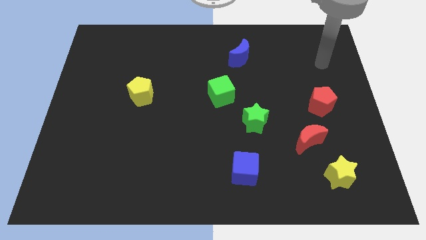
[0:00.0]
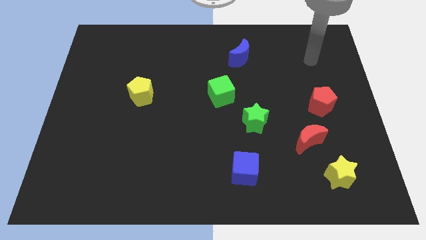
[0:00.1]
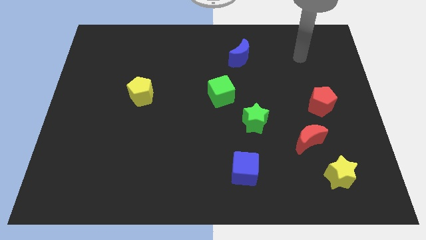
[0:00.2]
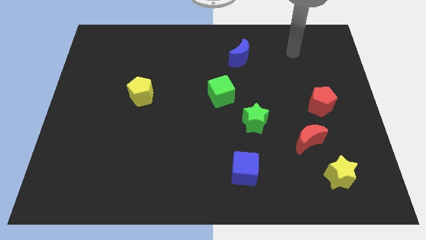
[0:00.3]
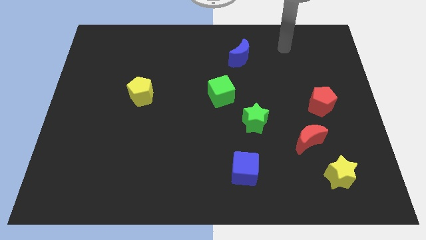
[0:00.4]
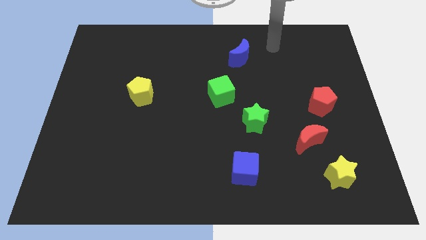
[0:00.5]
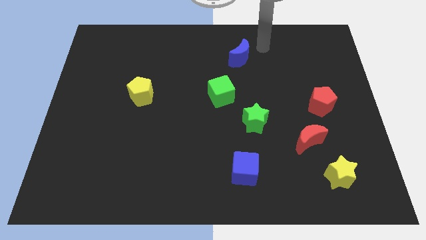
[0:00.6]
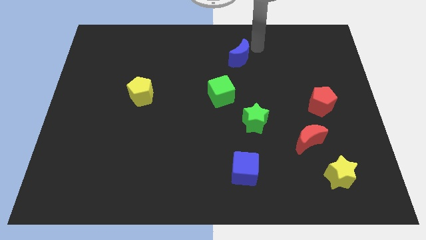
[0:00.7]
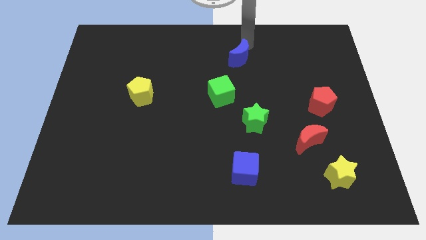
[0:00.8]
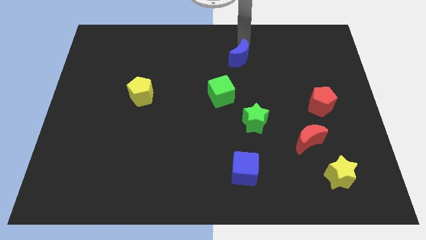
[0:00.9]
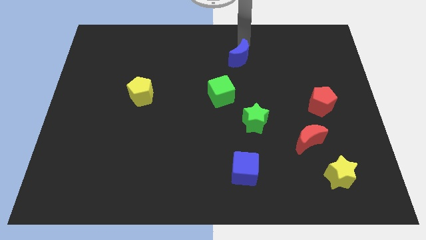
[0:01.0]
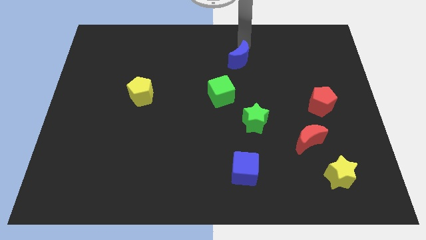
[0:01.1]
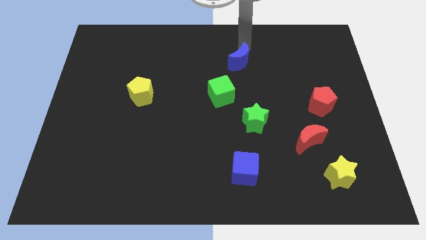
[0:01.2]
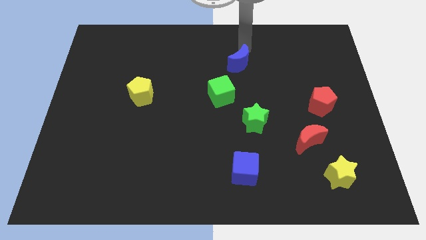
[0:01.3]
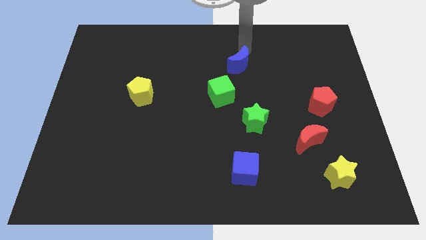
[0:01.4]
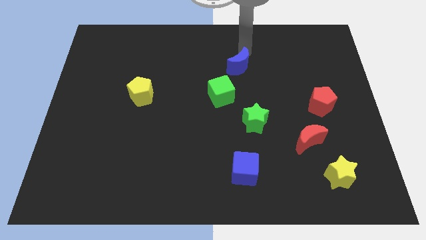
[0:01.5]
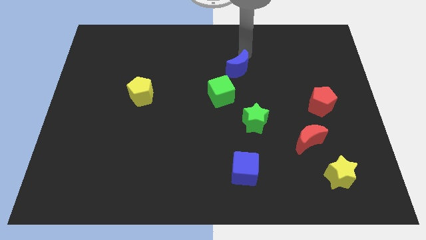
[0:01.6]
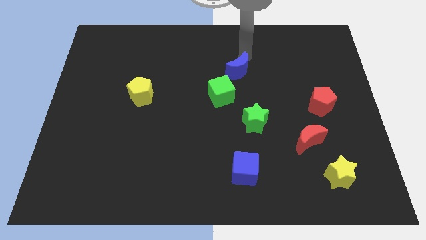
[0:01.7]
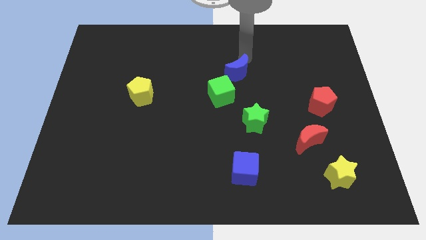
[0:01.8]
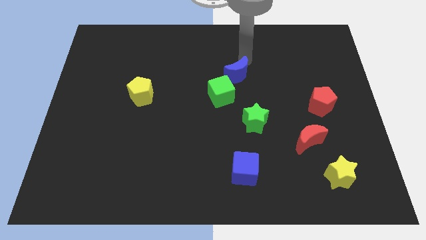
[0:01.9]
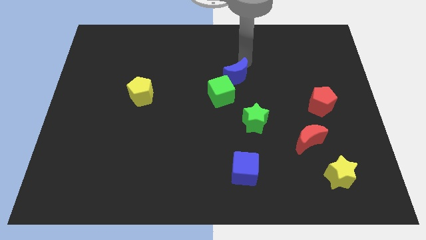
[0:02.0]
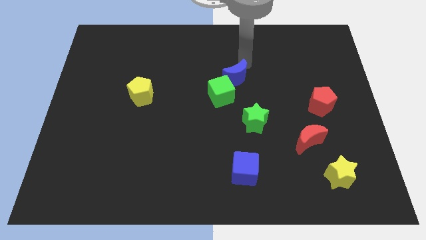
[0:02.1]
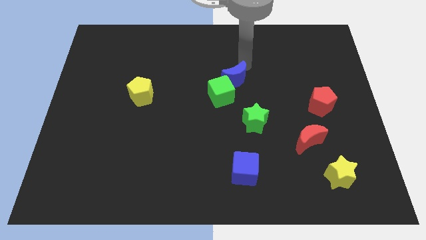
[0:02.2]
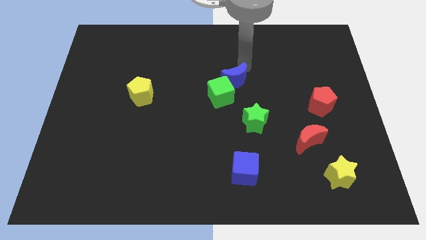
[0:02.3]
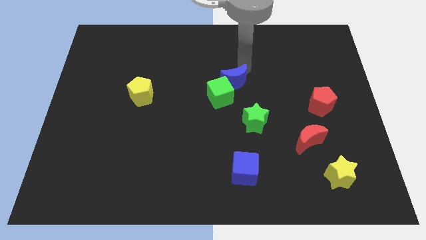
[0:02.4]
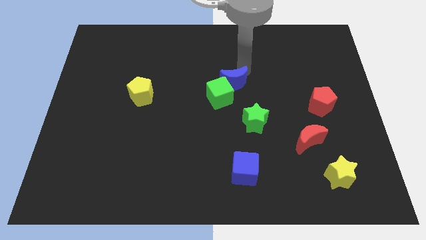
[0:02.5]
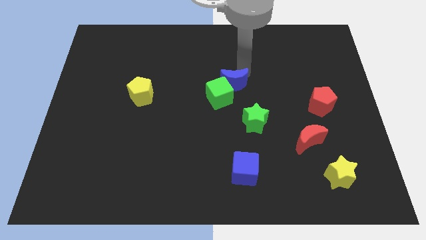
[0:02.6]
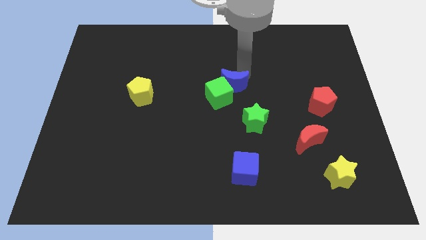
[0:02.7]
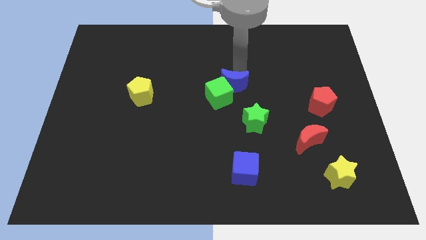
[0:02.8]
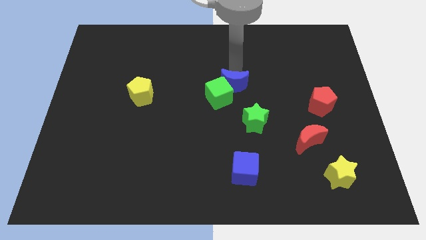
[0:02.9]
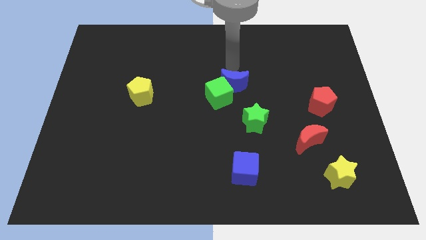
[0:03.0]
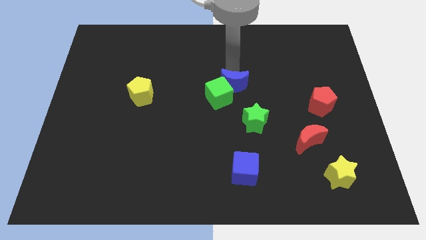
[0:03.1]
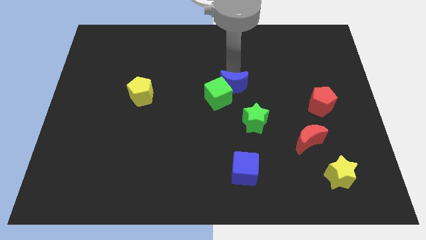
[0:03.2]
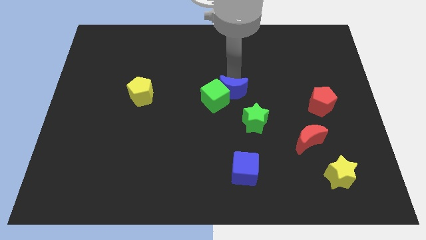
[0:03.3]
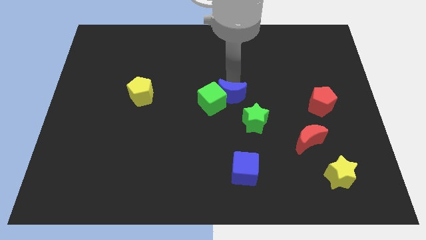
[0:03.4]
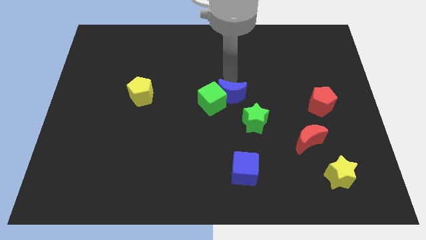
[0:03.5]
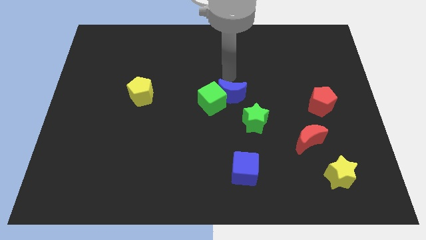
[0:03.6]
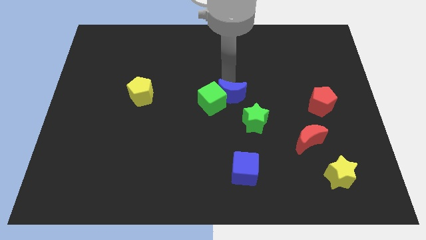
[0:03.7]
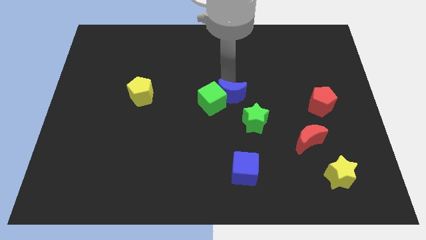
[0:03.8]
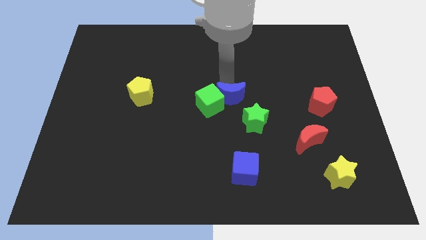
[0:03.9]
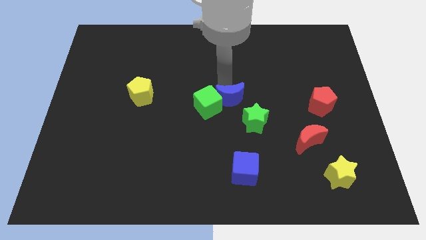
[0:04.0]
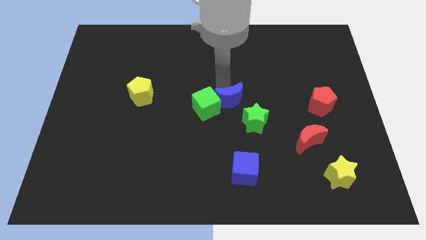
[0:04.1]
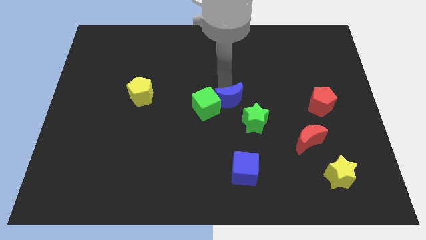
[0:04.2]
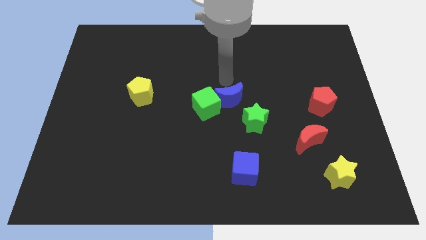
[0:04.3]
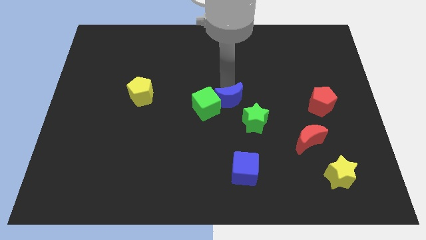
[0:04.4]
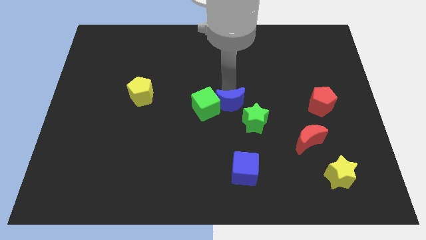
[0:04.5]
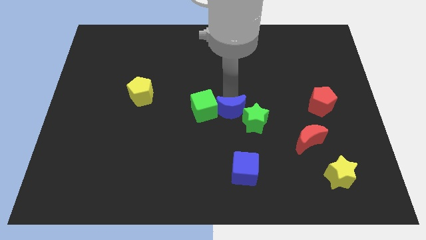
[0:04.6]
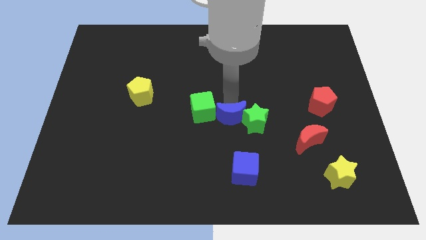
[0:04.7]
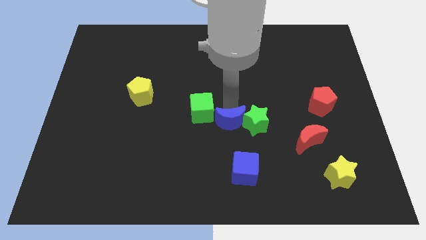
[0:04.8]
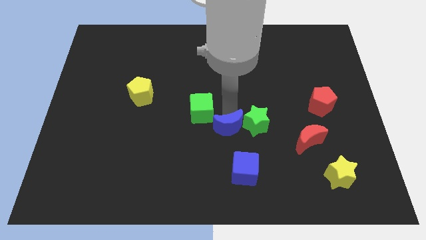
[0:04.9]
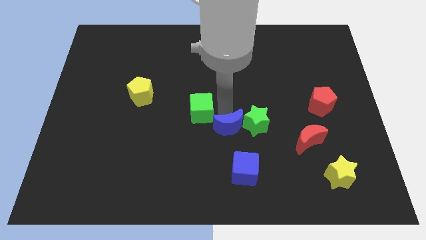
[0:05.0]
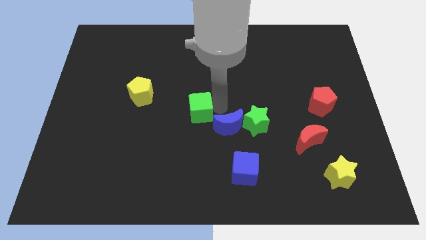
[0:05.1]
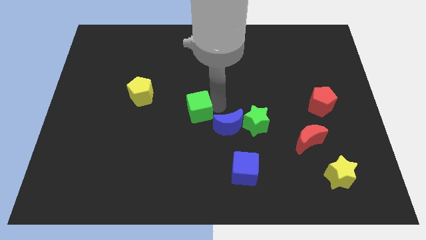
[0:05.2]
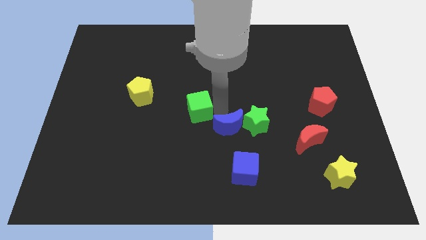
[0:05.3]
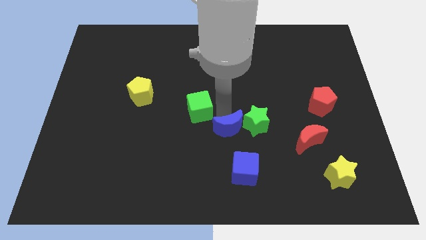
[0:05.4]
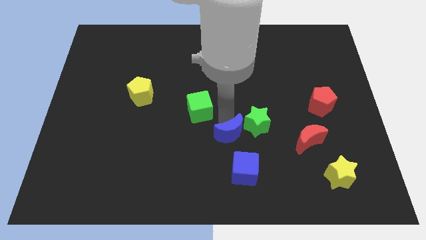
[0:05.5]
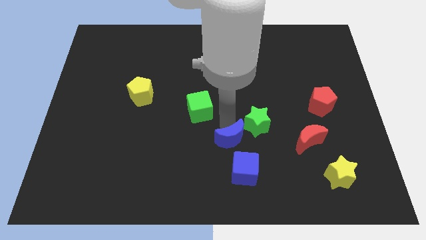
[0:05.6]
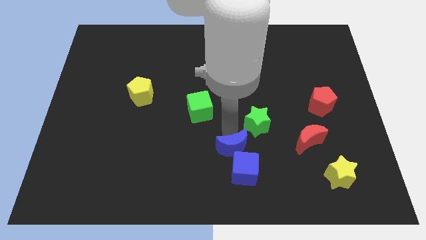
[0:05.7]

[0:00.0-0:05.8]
slide the blue moon to the blue cube

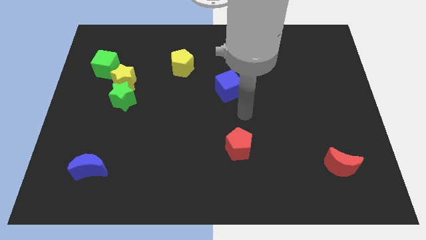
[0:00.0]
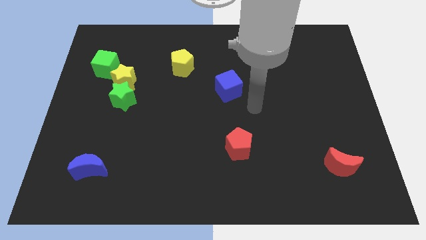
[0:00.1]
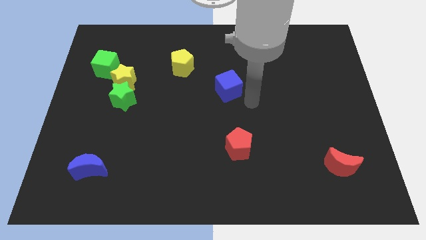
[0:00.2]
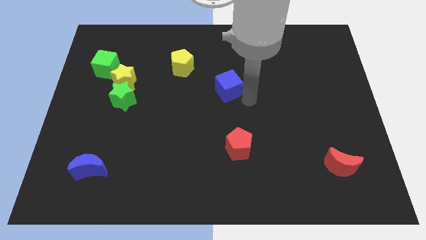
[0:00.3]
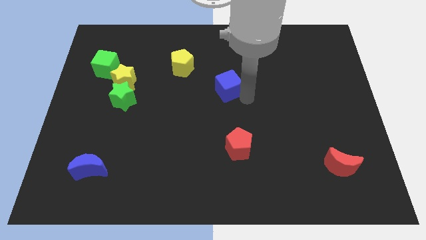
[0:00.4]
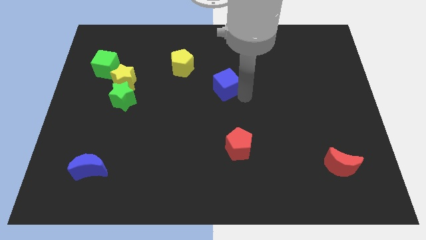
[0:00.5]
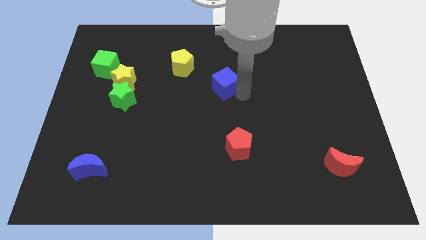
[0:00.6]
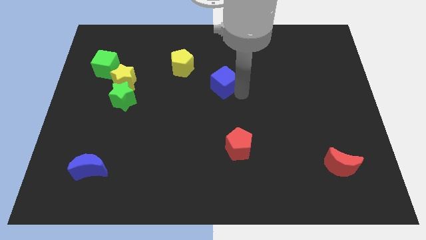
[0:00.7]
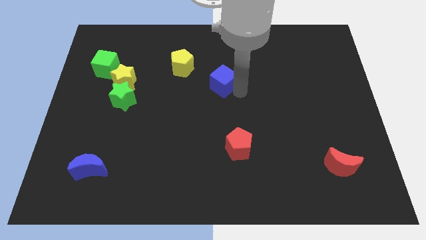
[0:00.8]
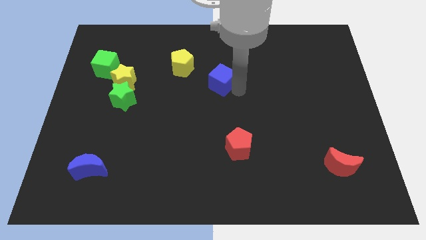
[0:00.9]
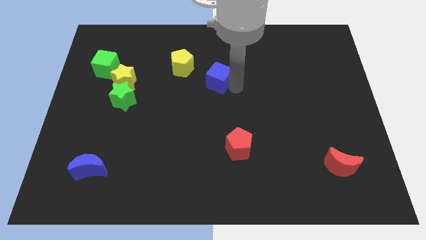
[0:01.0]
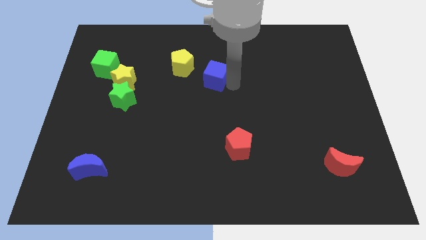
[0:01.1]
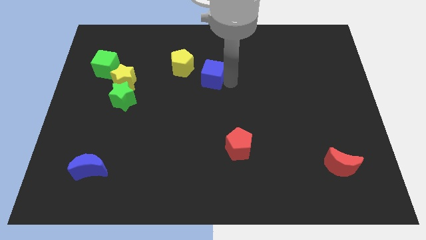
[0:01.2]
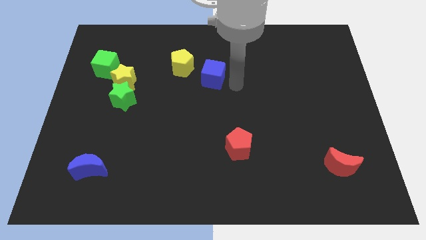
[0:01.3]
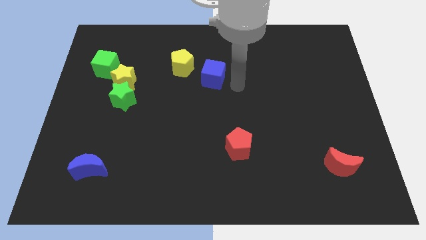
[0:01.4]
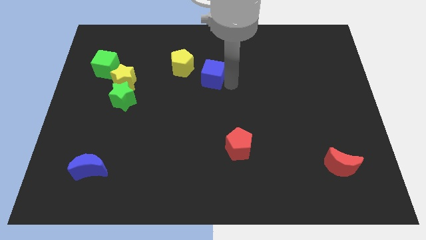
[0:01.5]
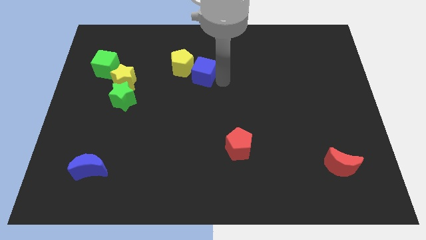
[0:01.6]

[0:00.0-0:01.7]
slide the blue cube to the yellow pentagon
